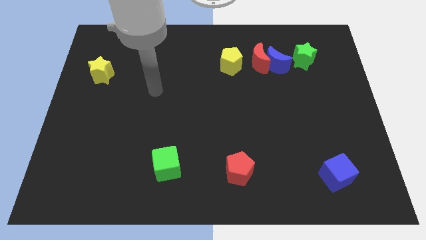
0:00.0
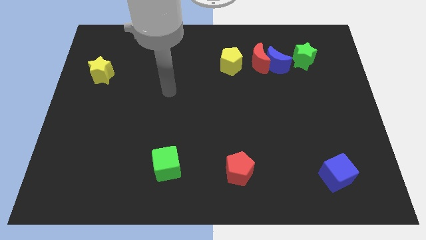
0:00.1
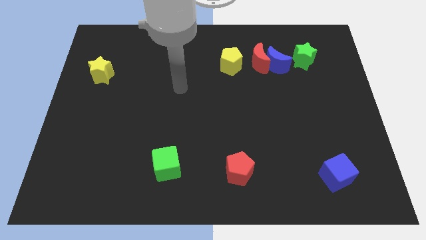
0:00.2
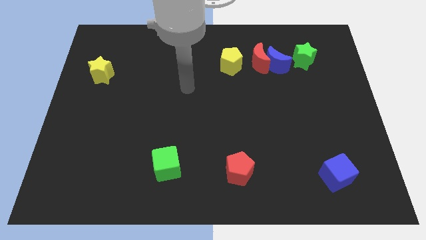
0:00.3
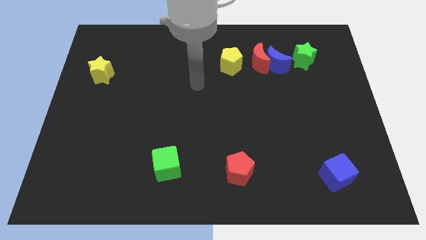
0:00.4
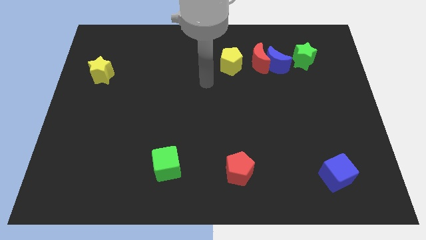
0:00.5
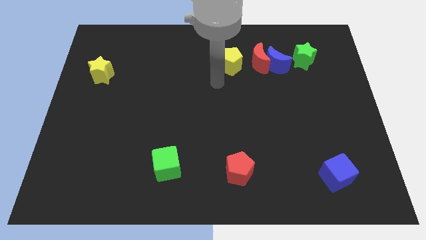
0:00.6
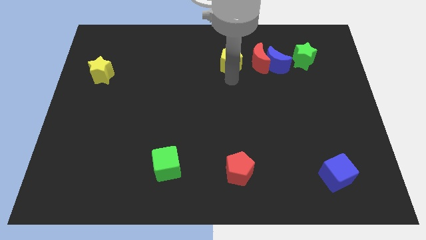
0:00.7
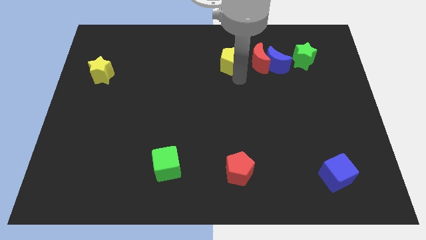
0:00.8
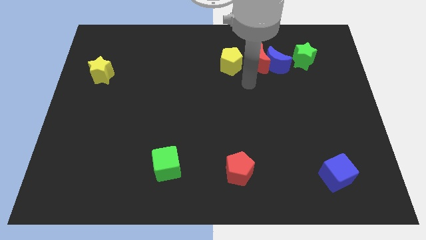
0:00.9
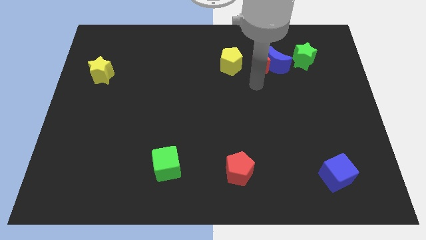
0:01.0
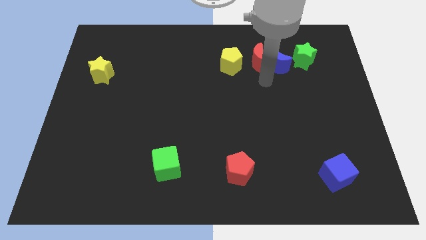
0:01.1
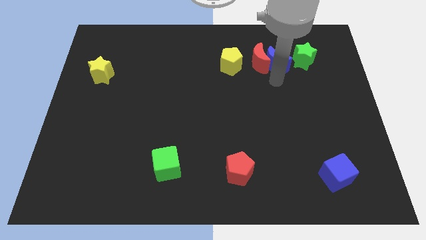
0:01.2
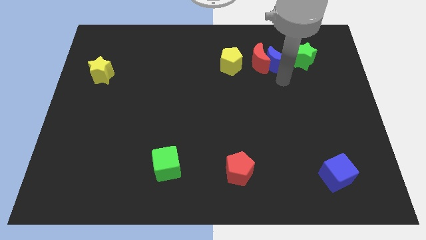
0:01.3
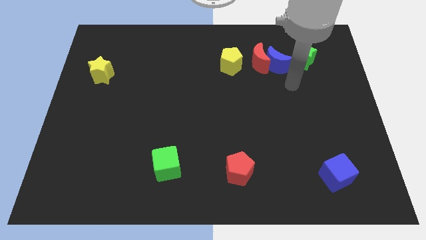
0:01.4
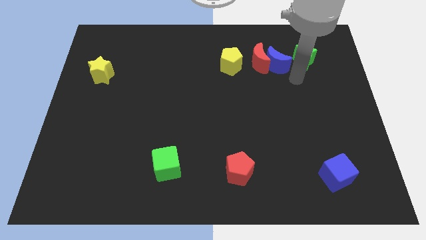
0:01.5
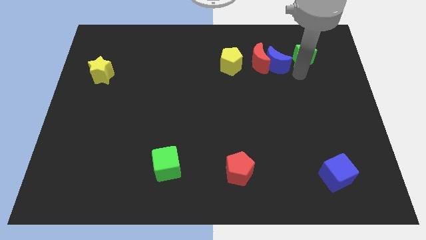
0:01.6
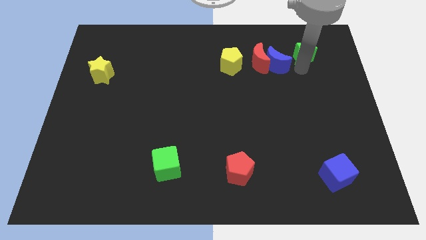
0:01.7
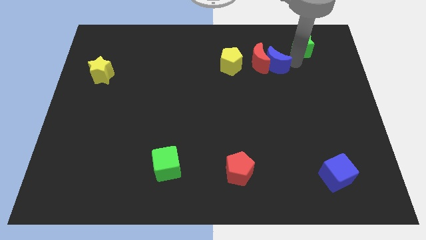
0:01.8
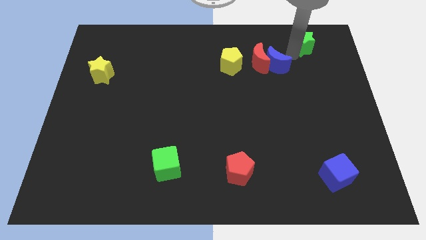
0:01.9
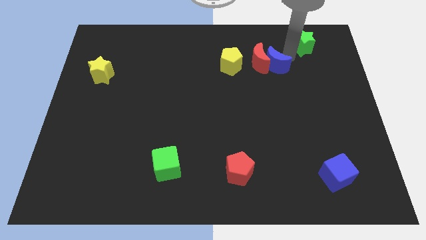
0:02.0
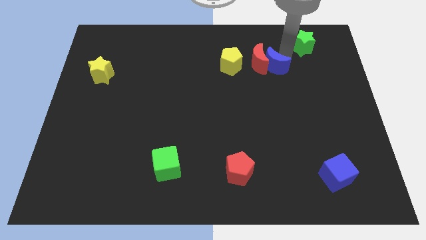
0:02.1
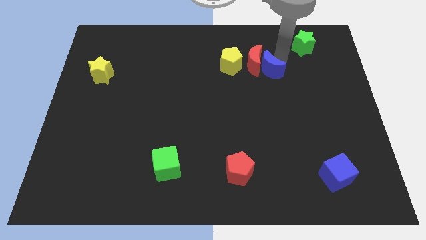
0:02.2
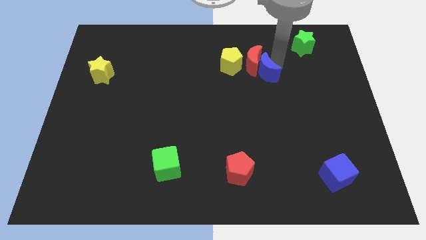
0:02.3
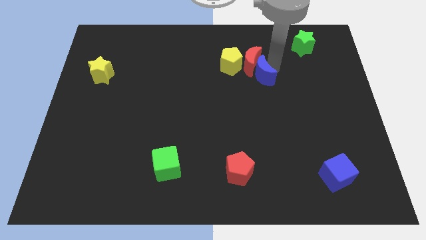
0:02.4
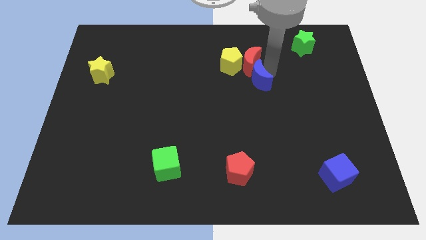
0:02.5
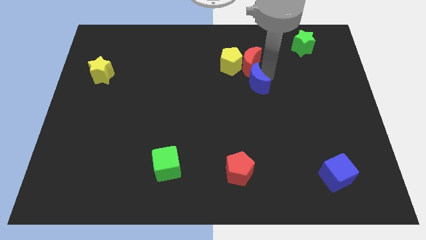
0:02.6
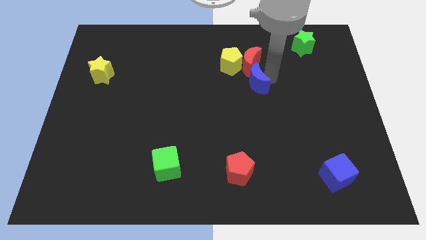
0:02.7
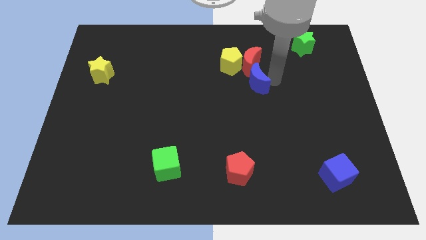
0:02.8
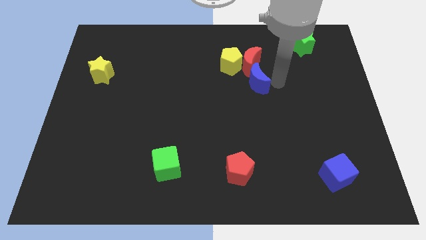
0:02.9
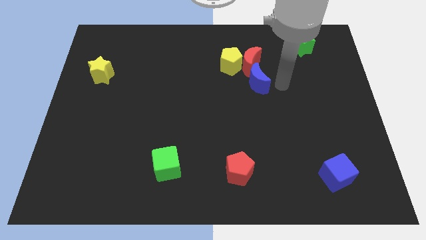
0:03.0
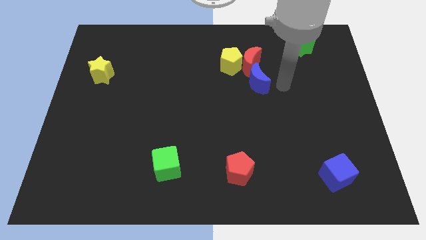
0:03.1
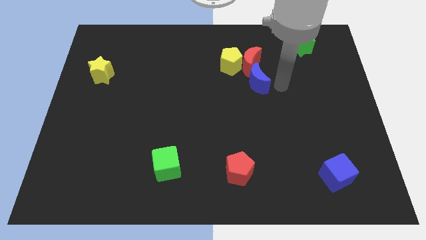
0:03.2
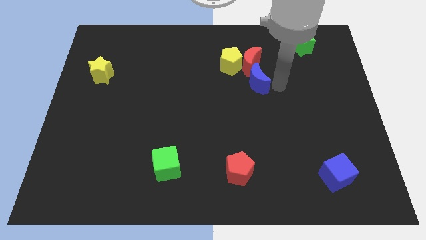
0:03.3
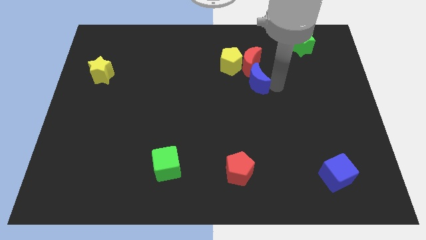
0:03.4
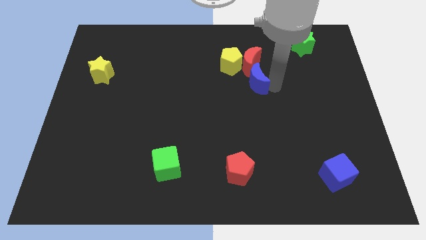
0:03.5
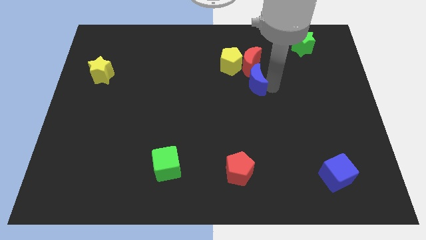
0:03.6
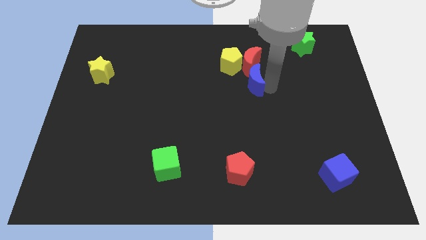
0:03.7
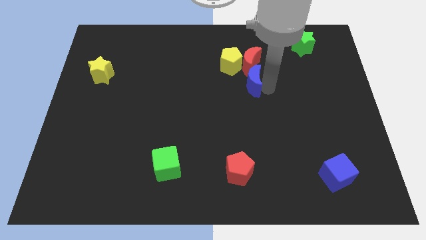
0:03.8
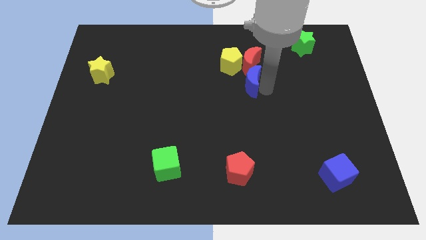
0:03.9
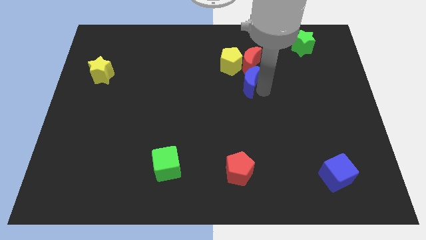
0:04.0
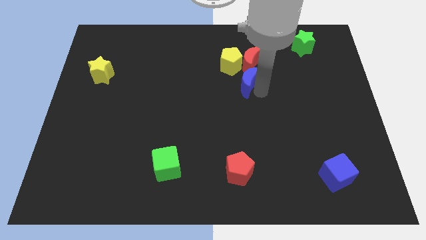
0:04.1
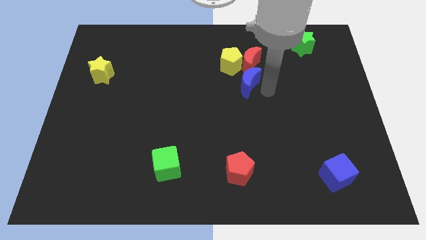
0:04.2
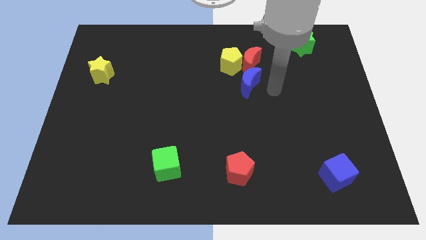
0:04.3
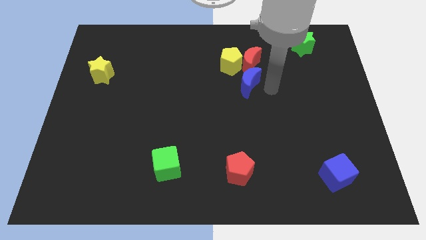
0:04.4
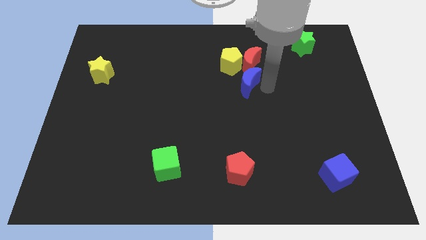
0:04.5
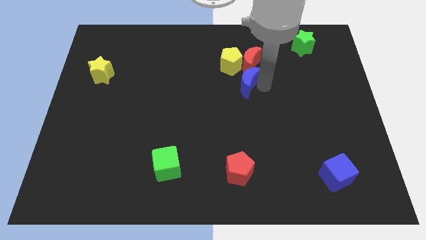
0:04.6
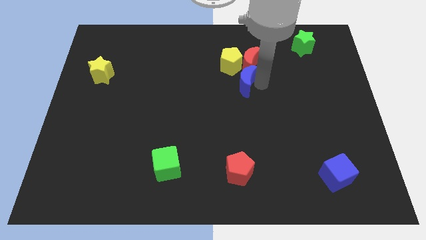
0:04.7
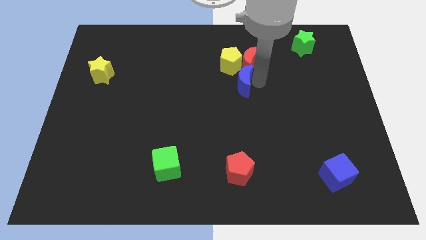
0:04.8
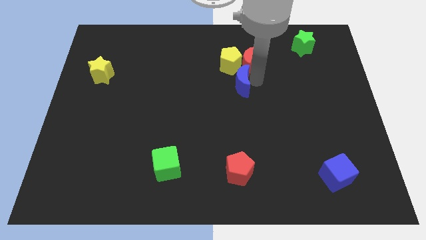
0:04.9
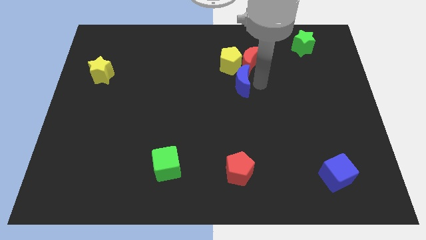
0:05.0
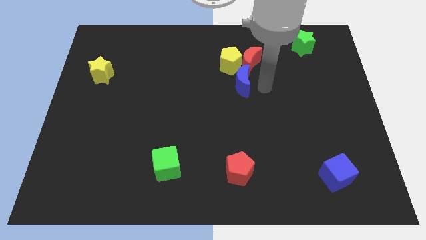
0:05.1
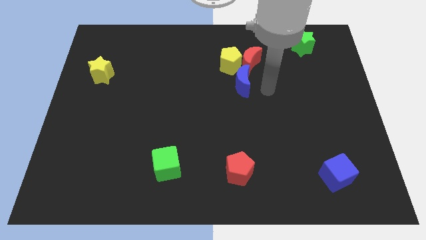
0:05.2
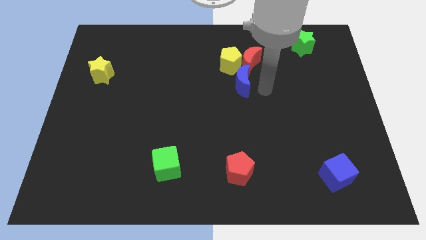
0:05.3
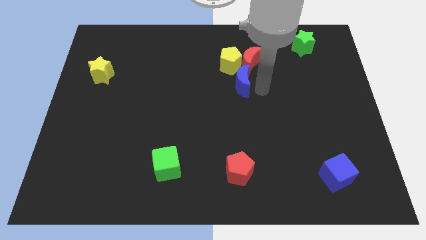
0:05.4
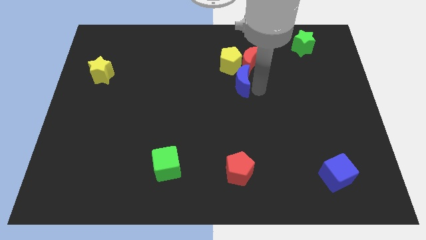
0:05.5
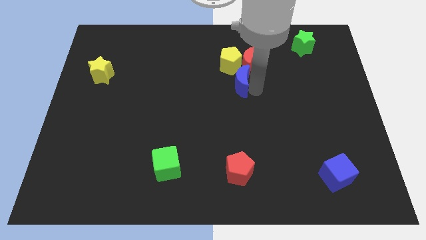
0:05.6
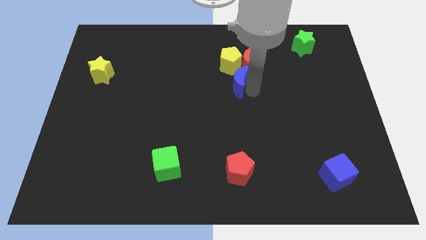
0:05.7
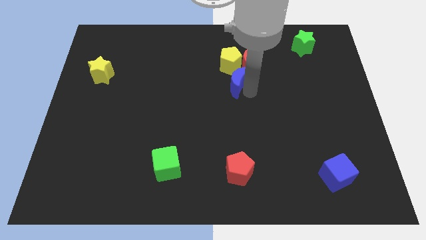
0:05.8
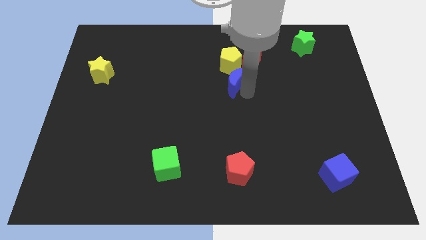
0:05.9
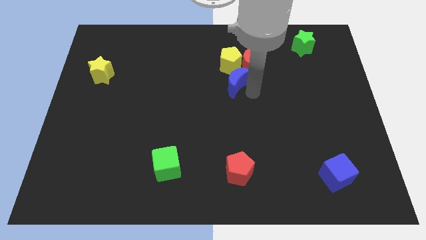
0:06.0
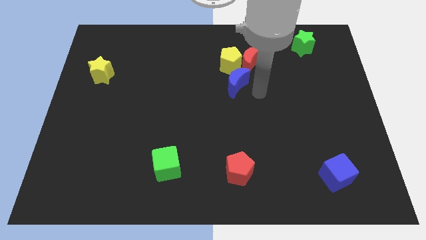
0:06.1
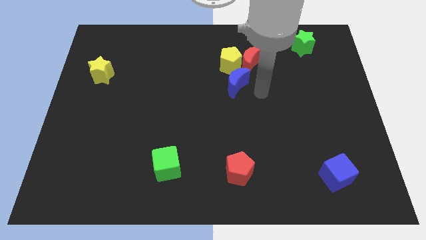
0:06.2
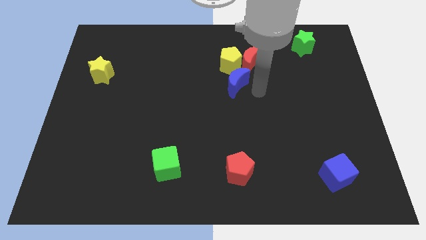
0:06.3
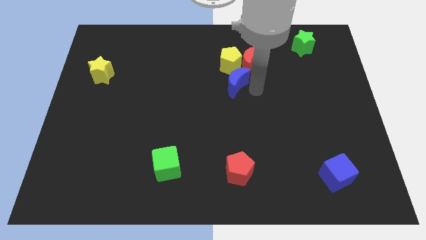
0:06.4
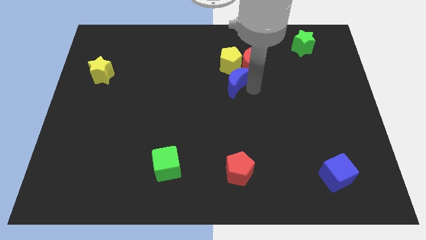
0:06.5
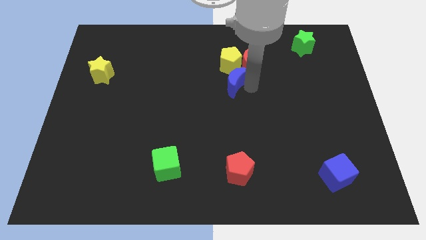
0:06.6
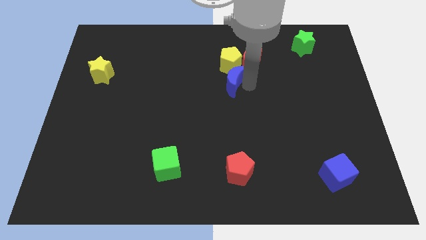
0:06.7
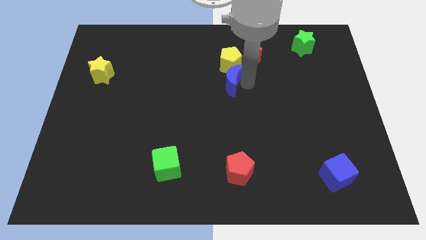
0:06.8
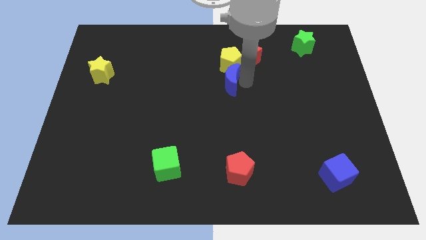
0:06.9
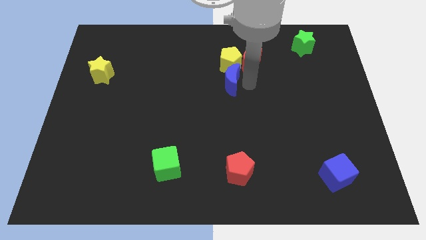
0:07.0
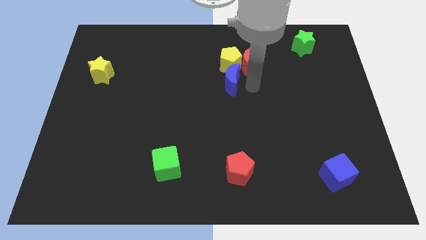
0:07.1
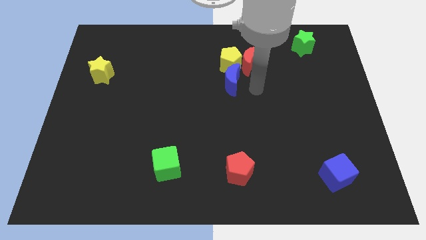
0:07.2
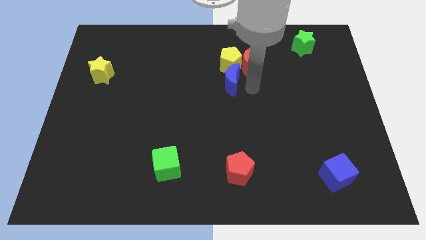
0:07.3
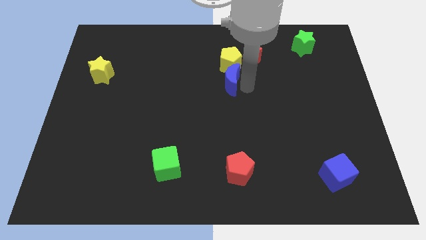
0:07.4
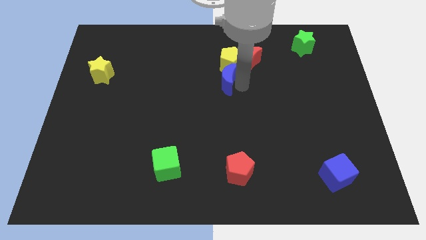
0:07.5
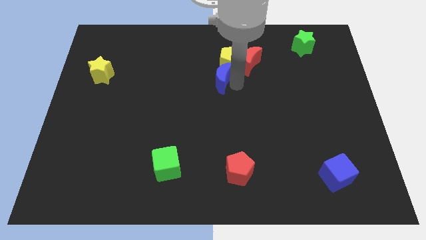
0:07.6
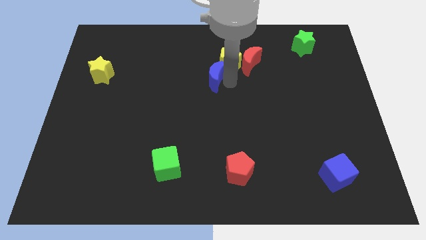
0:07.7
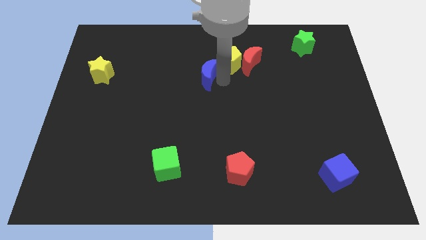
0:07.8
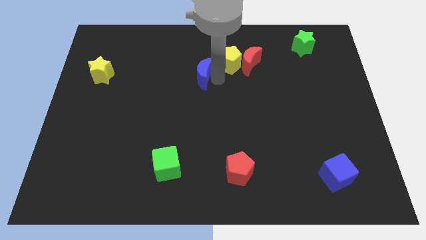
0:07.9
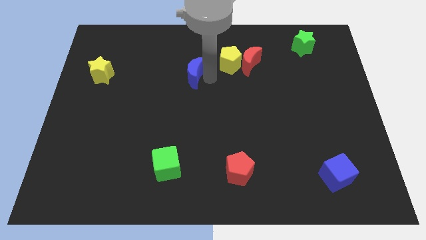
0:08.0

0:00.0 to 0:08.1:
slide the blue moon left
